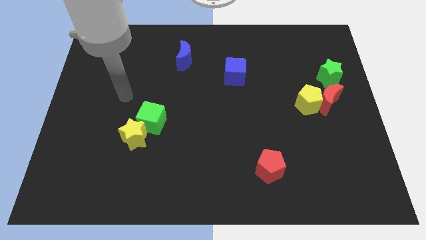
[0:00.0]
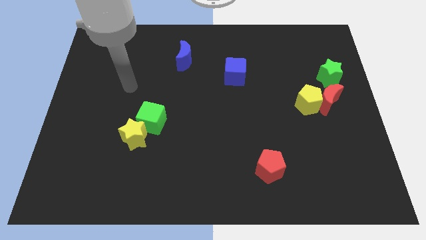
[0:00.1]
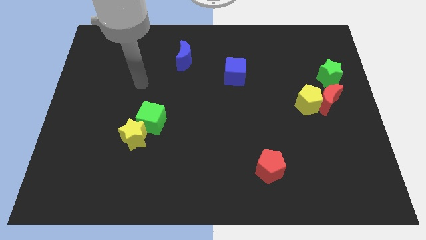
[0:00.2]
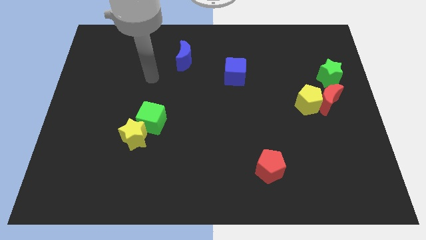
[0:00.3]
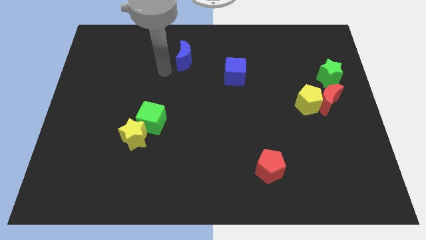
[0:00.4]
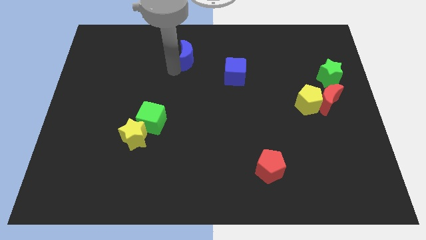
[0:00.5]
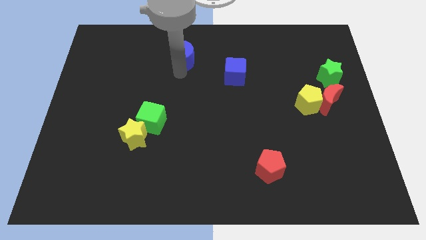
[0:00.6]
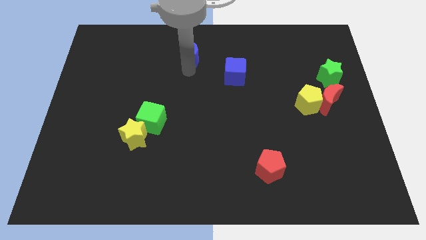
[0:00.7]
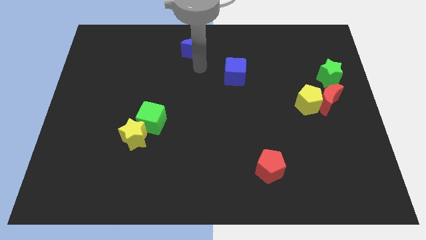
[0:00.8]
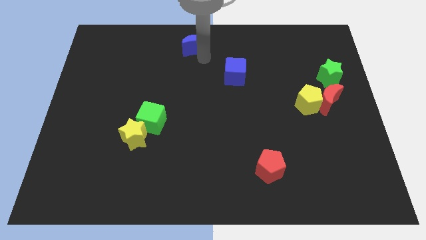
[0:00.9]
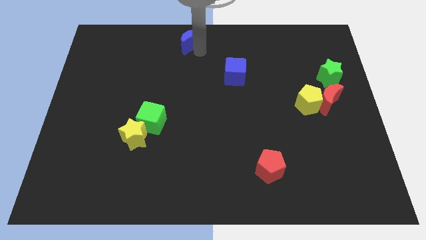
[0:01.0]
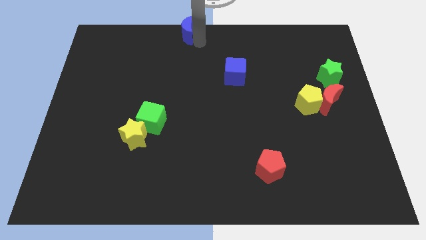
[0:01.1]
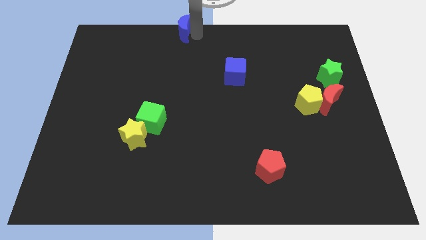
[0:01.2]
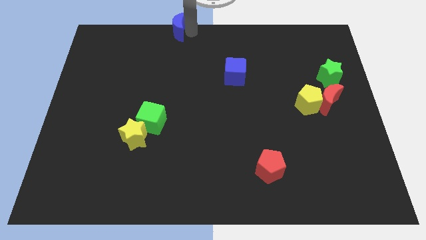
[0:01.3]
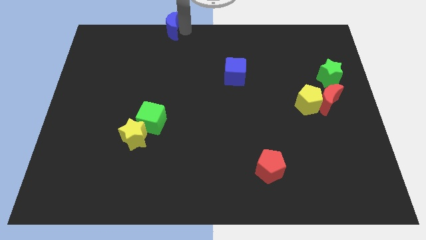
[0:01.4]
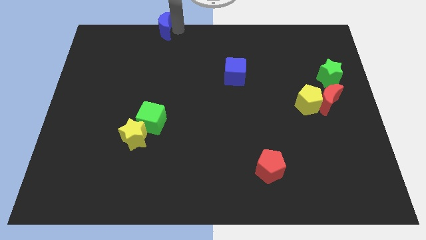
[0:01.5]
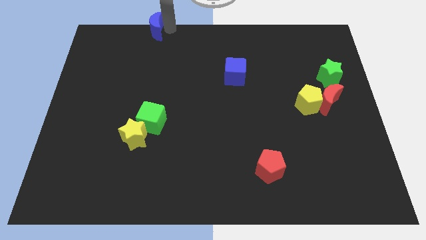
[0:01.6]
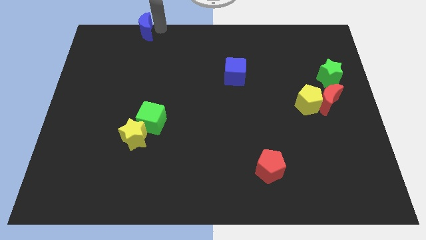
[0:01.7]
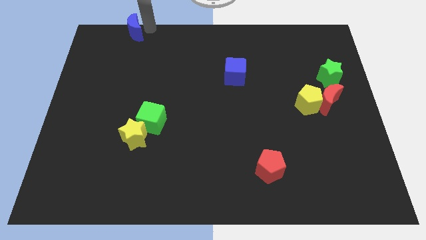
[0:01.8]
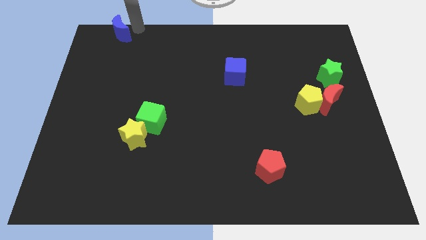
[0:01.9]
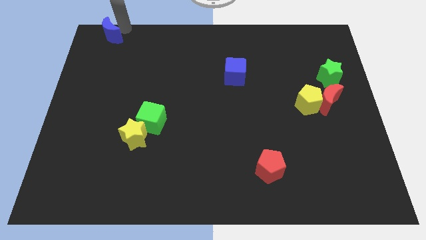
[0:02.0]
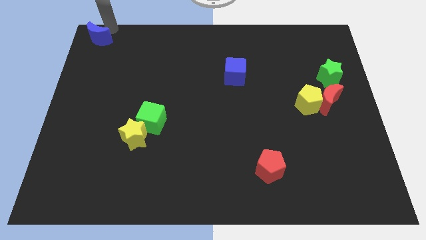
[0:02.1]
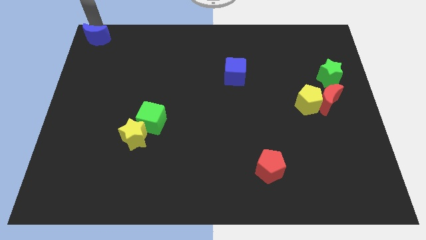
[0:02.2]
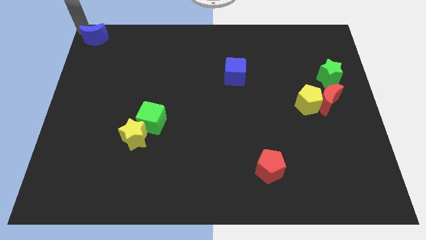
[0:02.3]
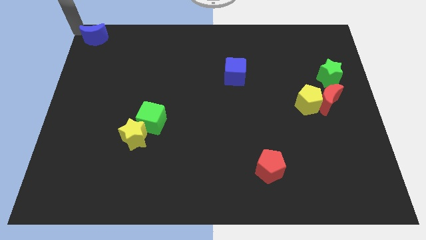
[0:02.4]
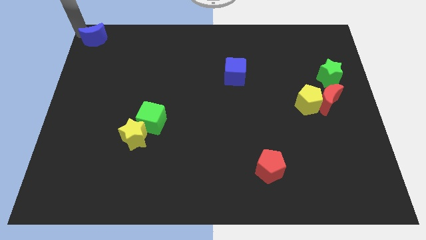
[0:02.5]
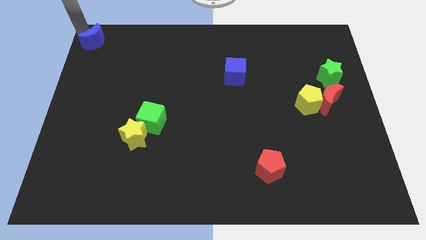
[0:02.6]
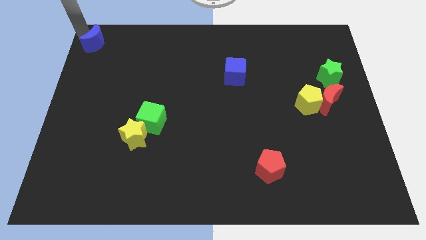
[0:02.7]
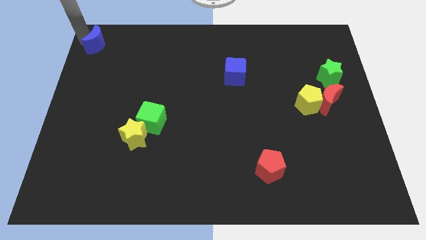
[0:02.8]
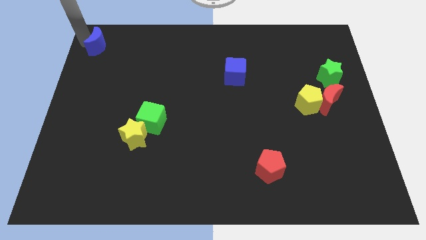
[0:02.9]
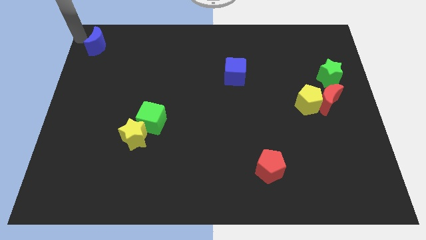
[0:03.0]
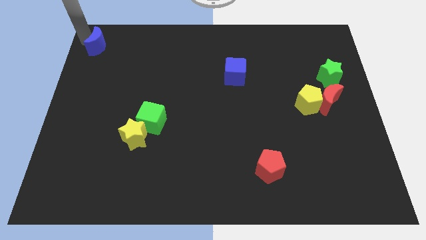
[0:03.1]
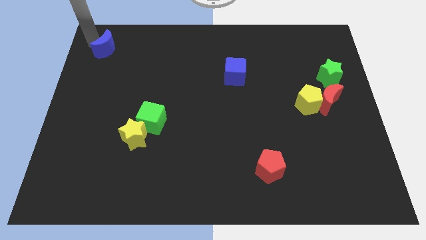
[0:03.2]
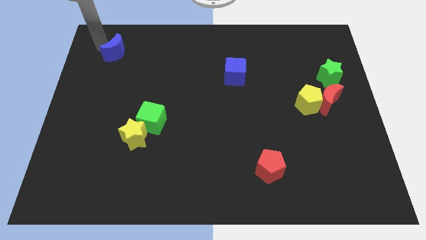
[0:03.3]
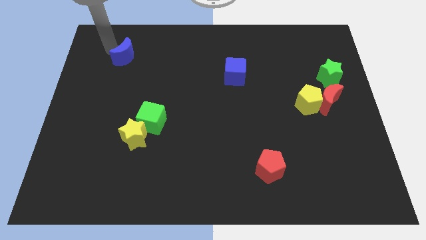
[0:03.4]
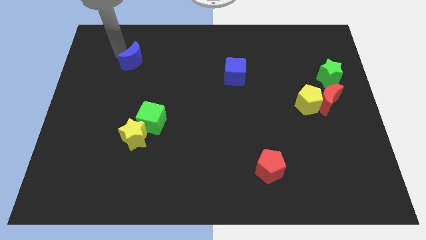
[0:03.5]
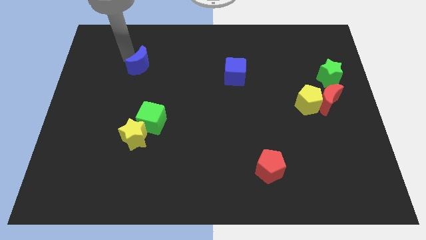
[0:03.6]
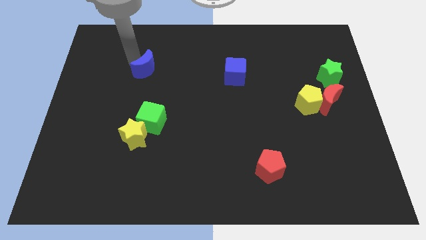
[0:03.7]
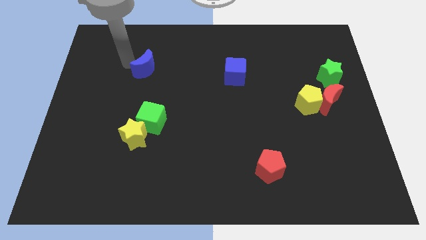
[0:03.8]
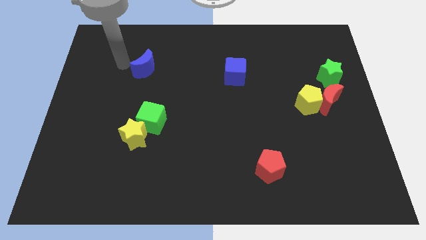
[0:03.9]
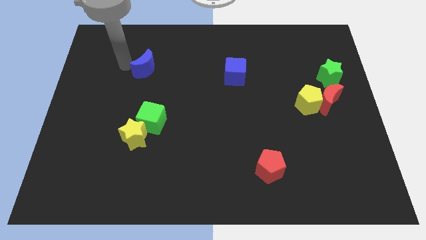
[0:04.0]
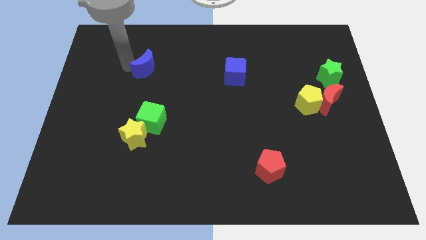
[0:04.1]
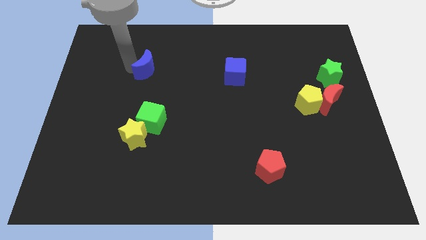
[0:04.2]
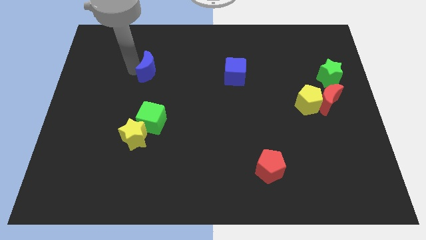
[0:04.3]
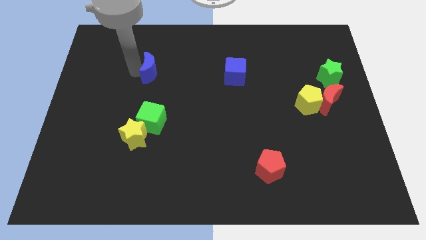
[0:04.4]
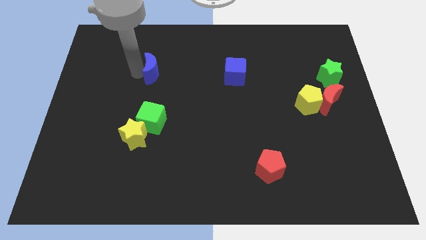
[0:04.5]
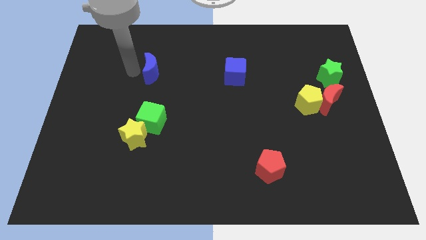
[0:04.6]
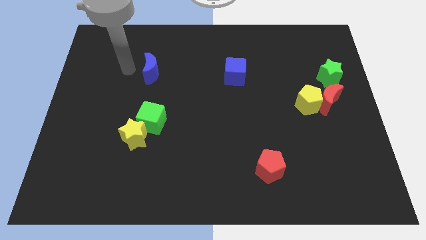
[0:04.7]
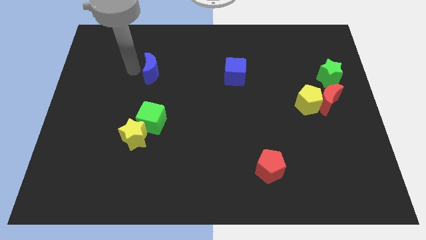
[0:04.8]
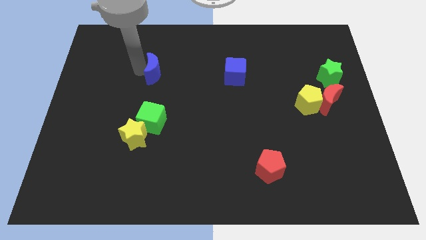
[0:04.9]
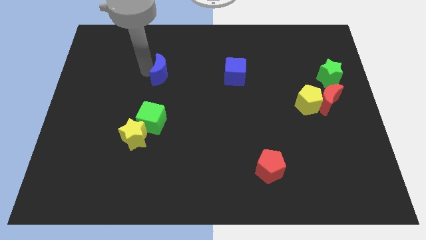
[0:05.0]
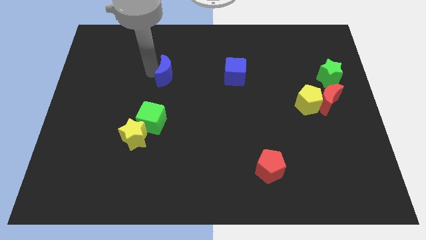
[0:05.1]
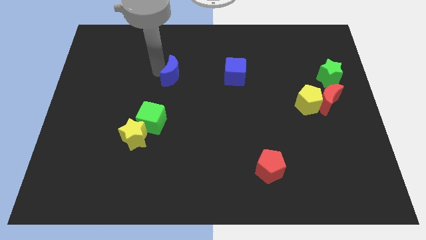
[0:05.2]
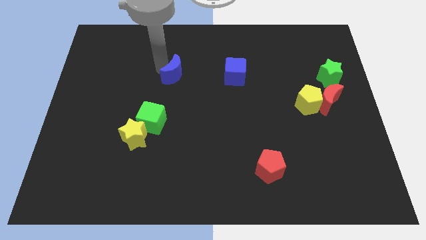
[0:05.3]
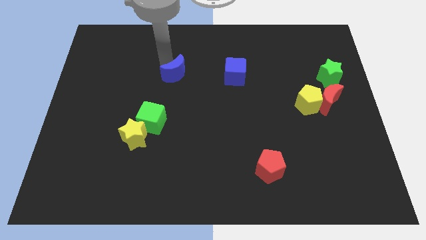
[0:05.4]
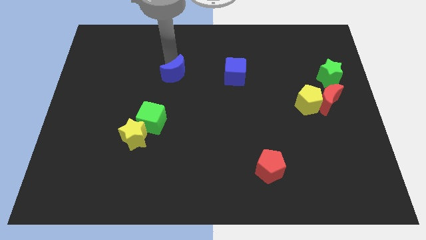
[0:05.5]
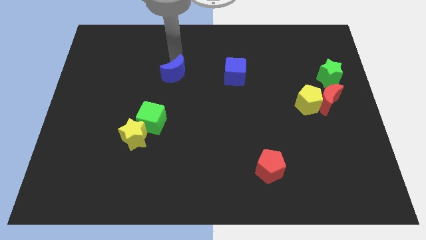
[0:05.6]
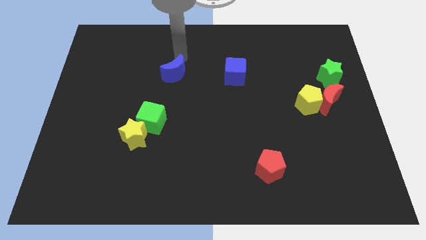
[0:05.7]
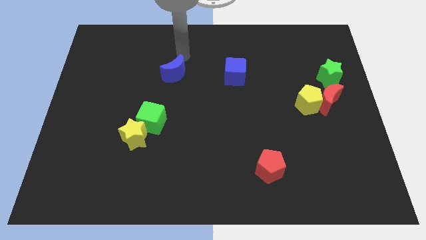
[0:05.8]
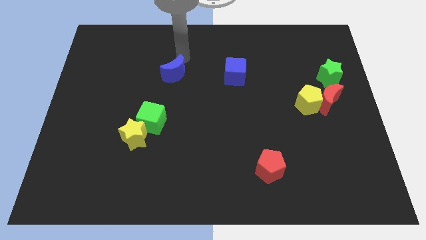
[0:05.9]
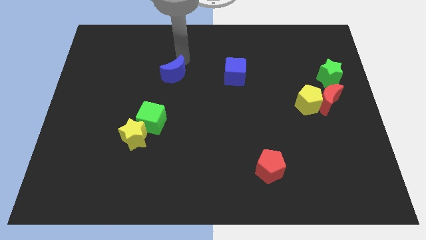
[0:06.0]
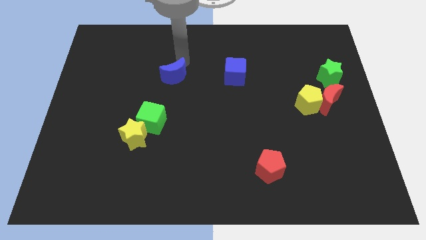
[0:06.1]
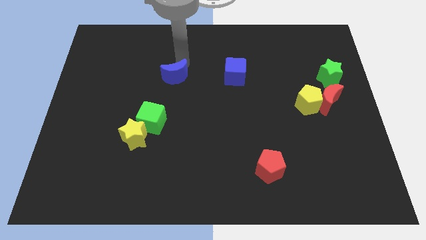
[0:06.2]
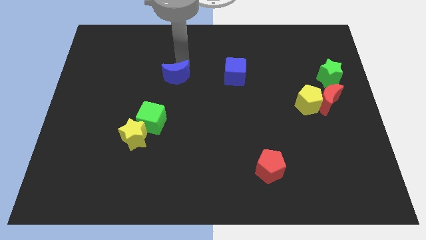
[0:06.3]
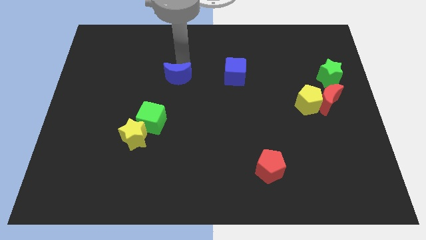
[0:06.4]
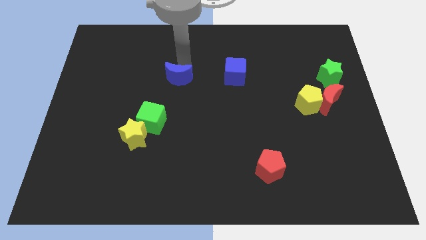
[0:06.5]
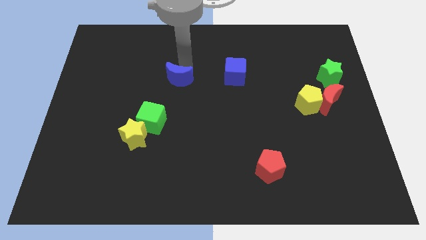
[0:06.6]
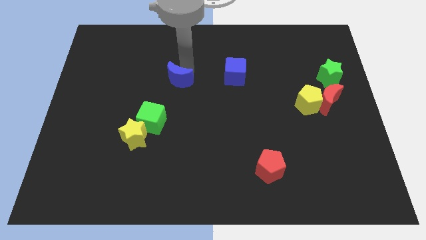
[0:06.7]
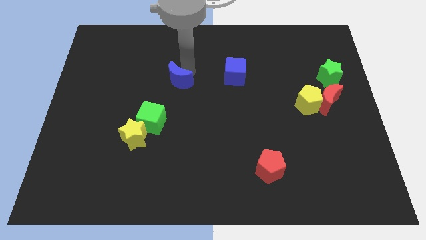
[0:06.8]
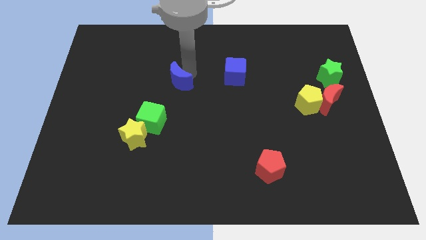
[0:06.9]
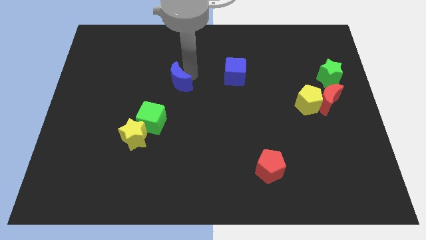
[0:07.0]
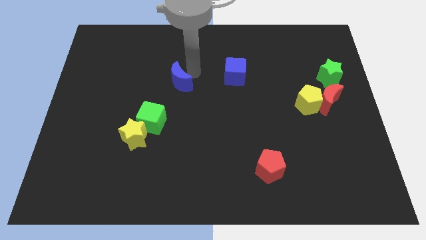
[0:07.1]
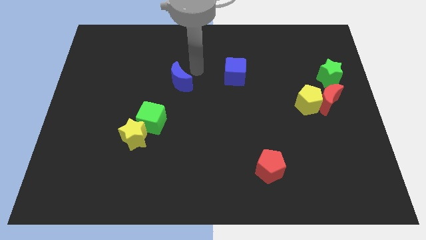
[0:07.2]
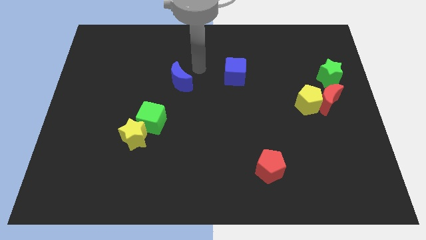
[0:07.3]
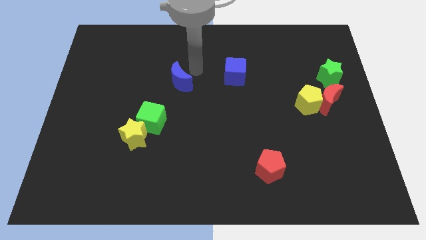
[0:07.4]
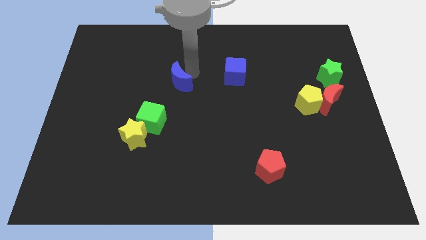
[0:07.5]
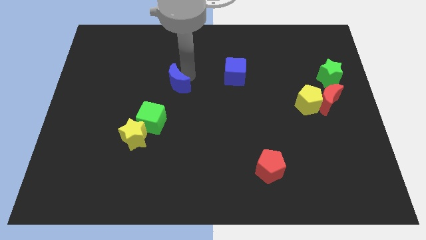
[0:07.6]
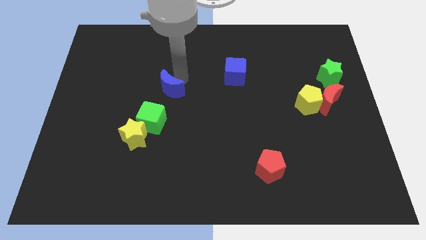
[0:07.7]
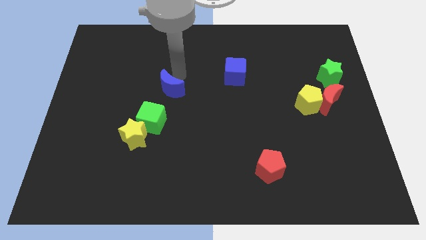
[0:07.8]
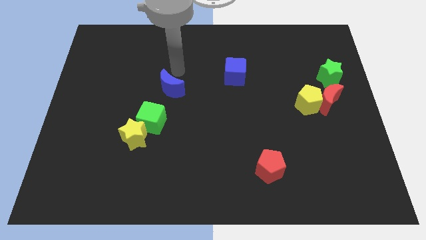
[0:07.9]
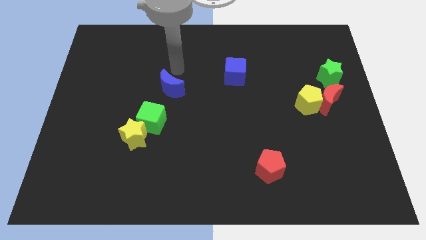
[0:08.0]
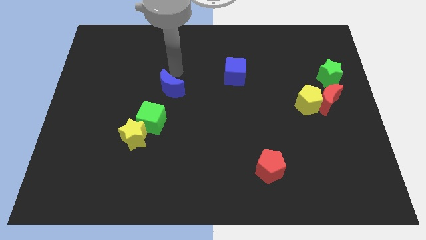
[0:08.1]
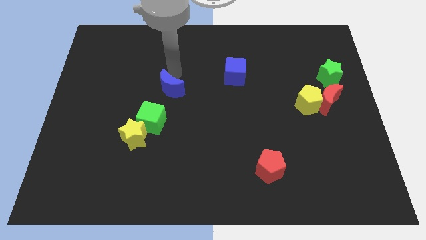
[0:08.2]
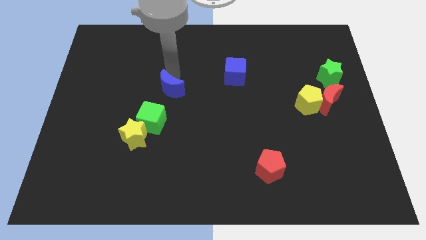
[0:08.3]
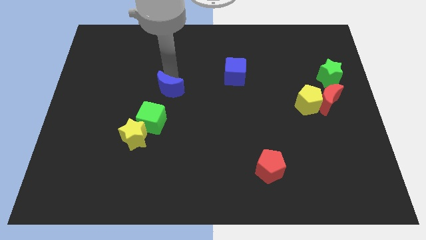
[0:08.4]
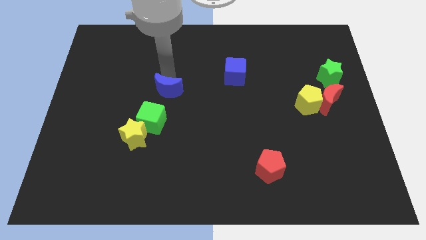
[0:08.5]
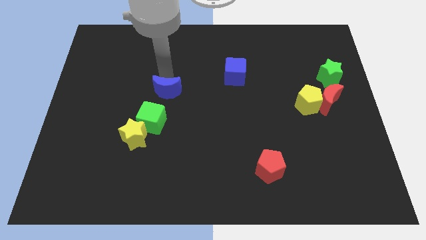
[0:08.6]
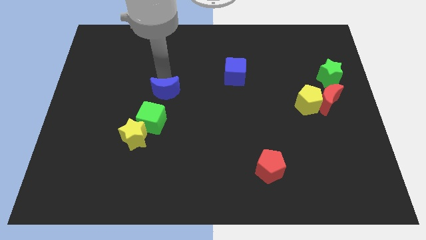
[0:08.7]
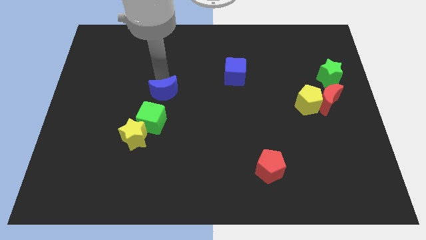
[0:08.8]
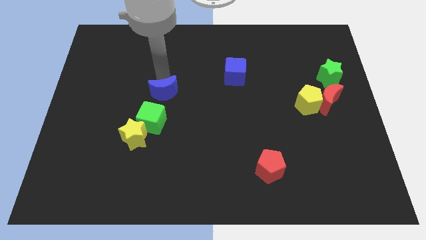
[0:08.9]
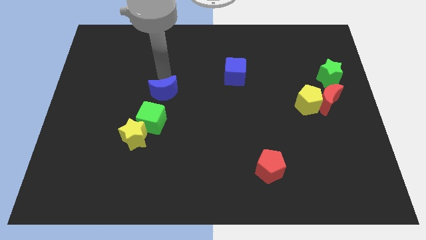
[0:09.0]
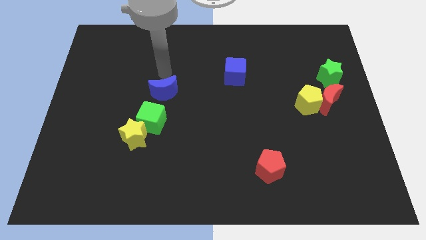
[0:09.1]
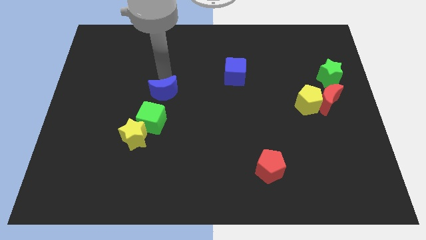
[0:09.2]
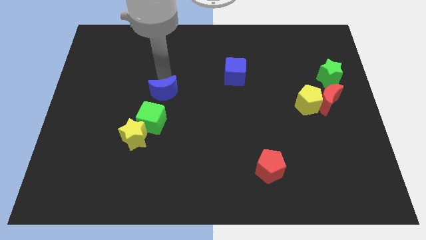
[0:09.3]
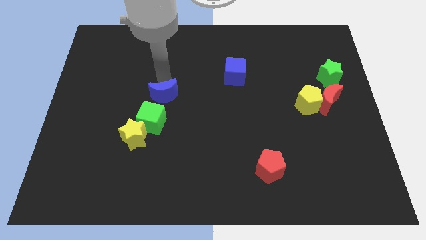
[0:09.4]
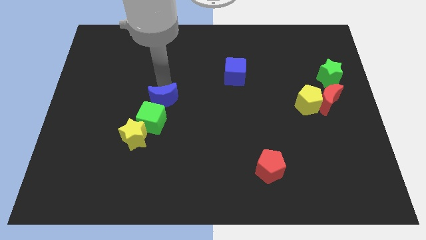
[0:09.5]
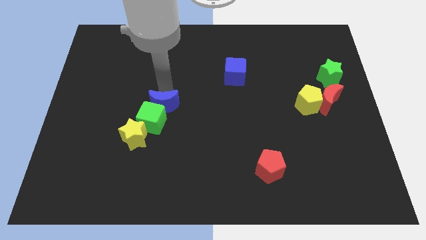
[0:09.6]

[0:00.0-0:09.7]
put the blue moon close to the green cube
